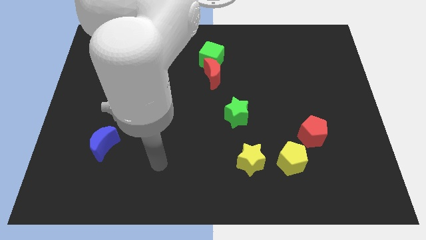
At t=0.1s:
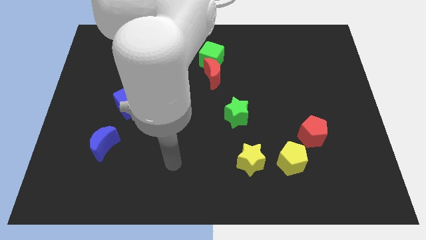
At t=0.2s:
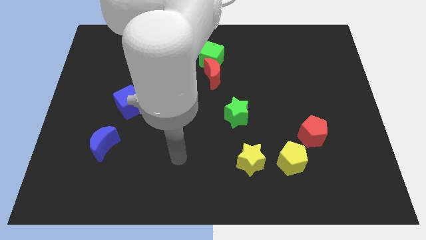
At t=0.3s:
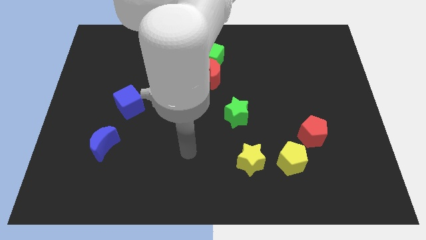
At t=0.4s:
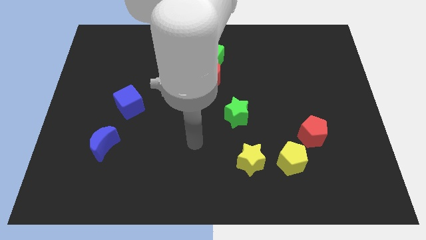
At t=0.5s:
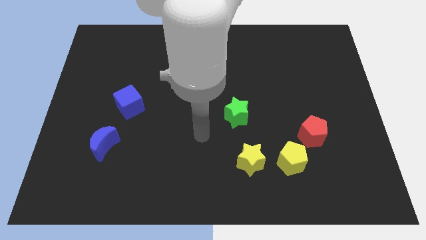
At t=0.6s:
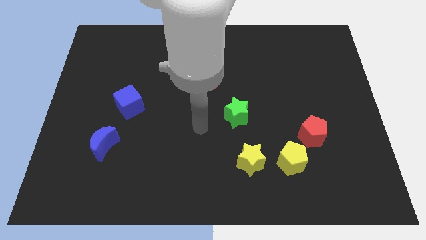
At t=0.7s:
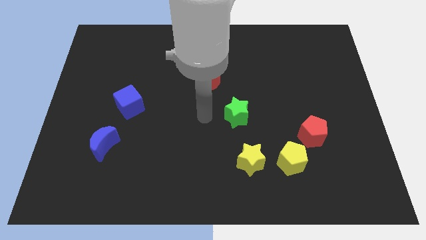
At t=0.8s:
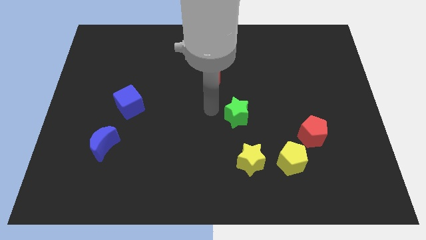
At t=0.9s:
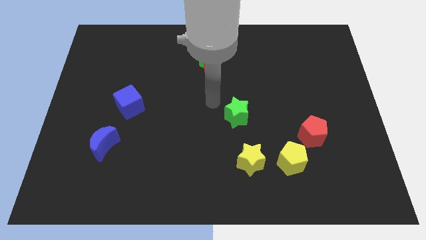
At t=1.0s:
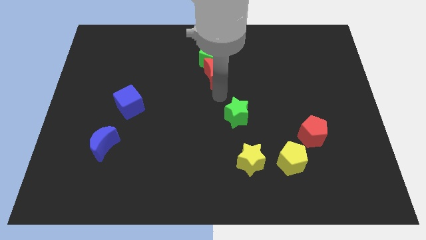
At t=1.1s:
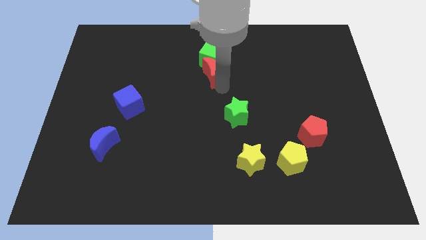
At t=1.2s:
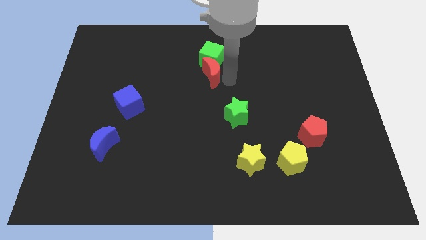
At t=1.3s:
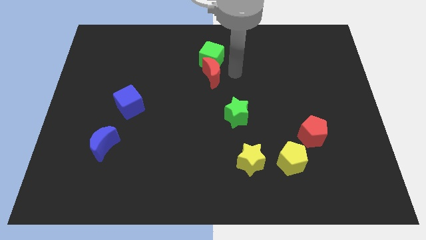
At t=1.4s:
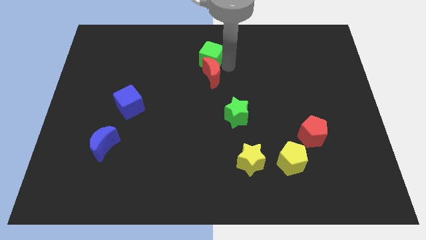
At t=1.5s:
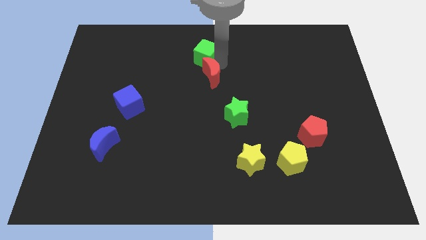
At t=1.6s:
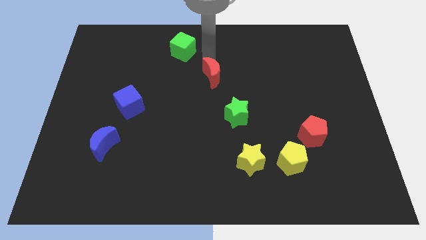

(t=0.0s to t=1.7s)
separate the red moon from the green cube

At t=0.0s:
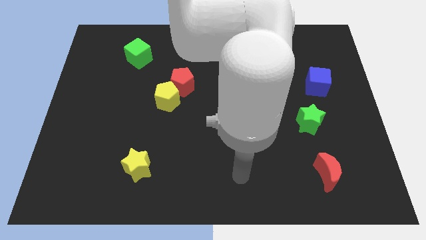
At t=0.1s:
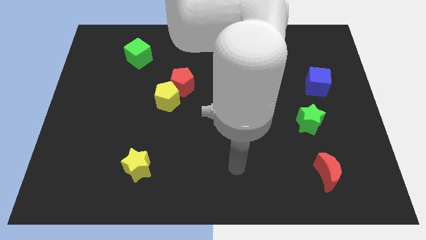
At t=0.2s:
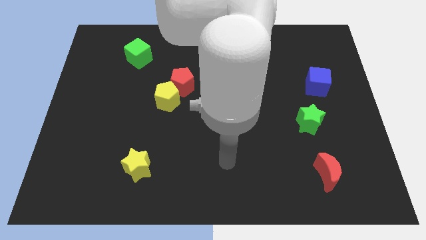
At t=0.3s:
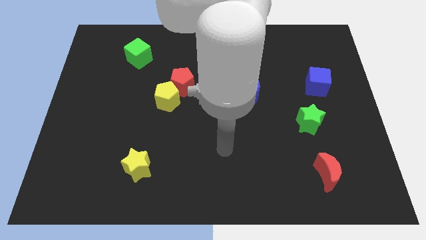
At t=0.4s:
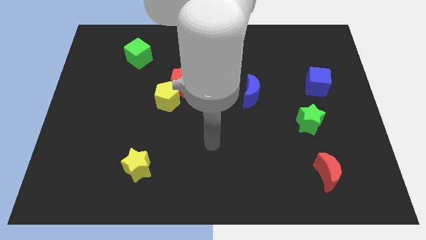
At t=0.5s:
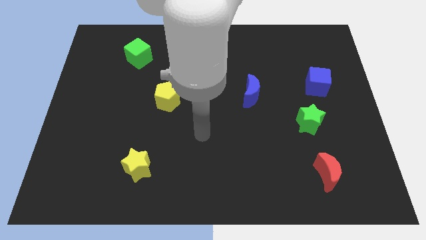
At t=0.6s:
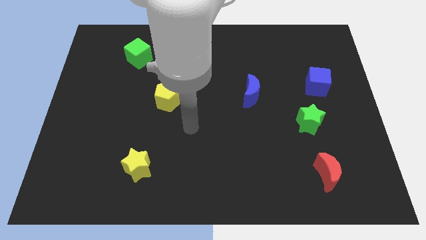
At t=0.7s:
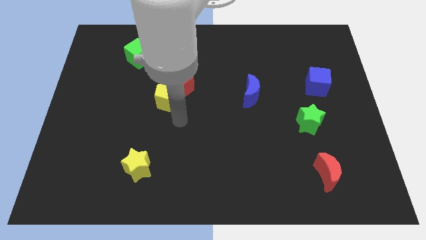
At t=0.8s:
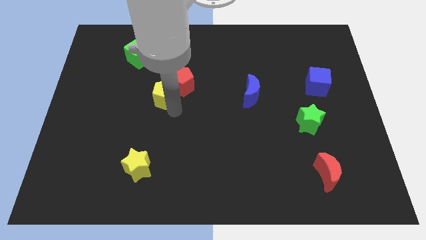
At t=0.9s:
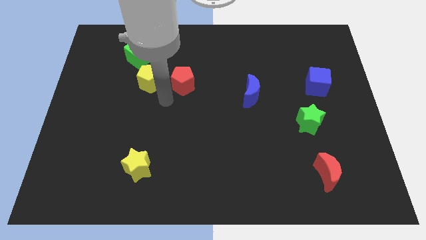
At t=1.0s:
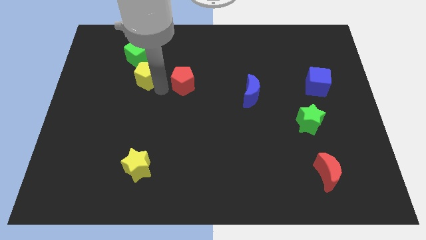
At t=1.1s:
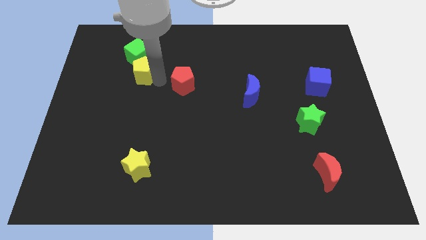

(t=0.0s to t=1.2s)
pull the red pentagon apart from the yellow pentagon

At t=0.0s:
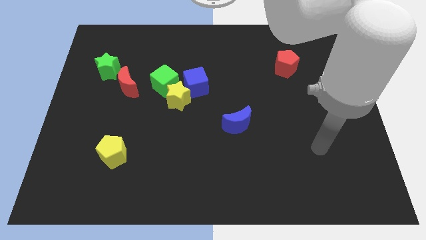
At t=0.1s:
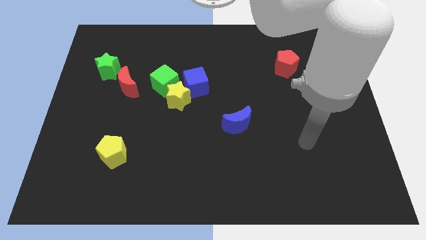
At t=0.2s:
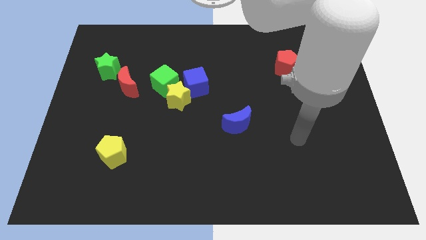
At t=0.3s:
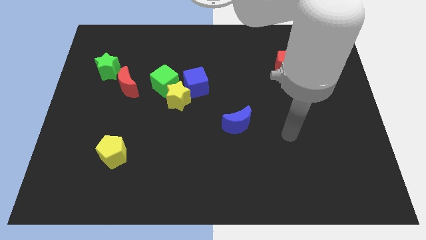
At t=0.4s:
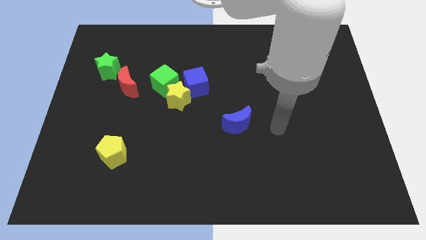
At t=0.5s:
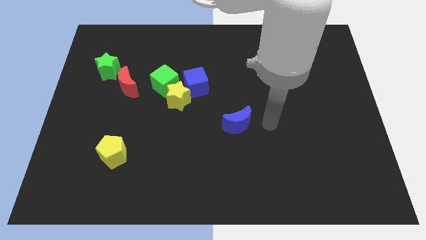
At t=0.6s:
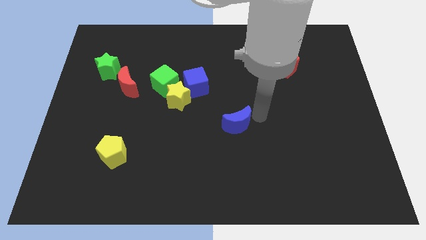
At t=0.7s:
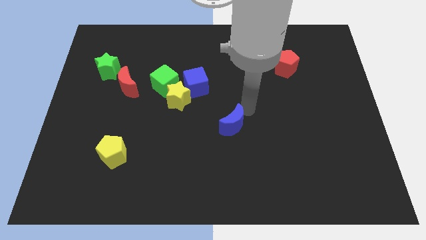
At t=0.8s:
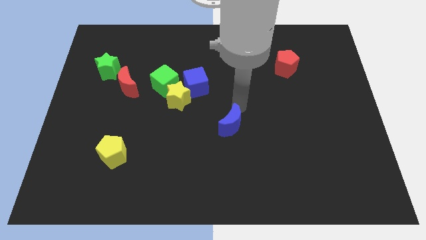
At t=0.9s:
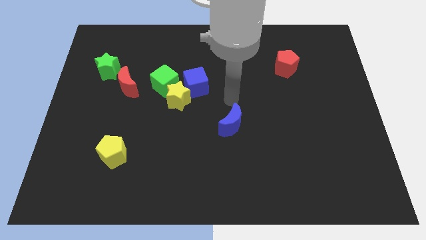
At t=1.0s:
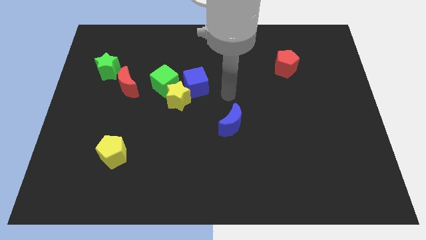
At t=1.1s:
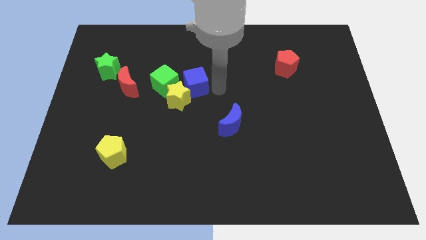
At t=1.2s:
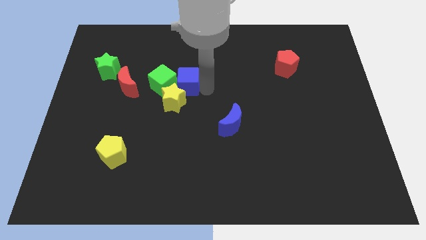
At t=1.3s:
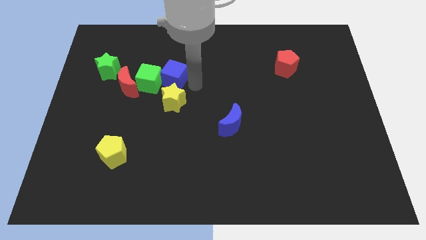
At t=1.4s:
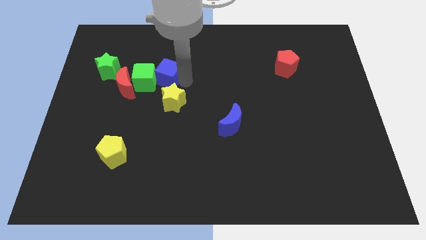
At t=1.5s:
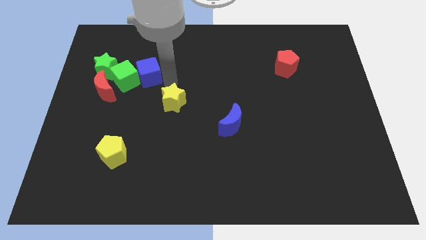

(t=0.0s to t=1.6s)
pull the yellow star apart from the blue cube and green cube

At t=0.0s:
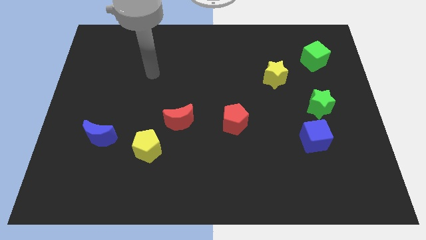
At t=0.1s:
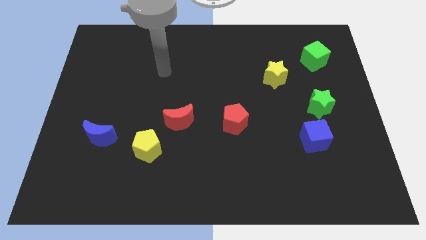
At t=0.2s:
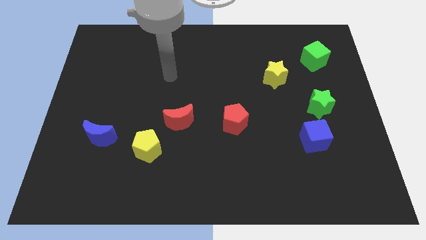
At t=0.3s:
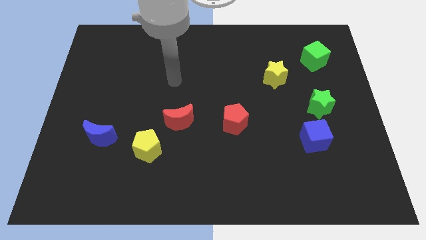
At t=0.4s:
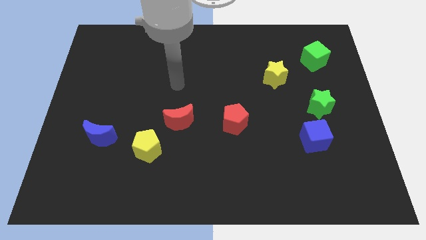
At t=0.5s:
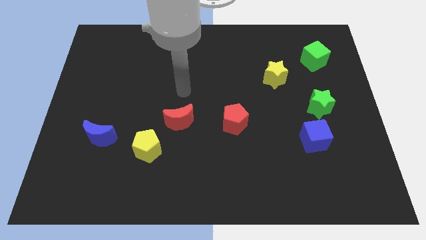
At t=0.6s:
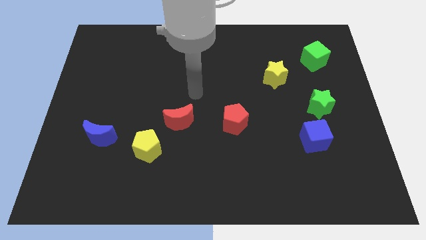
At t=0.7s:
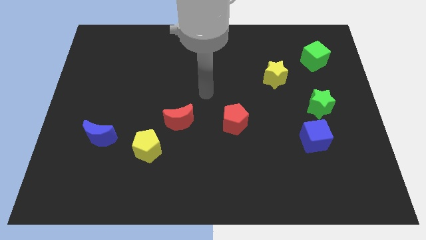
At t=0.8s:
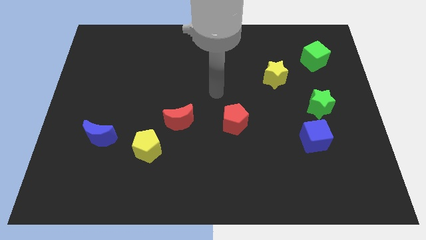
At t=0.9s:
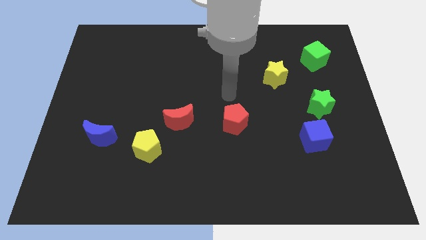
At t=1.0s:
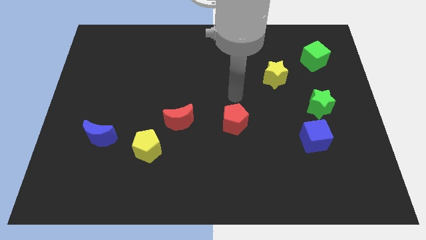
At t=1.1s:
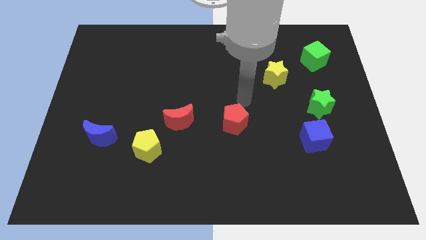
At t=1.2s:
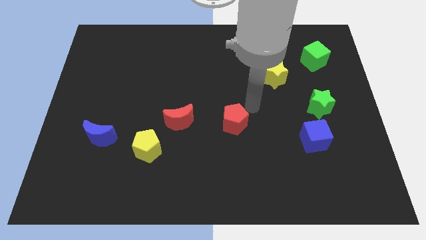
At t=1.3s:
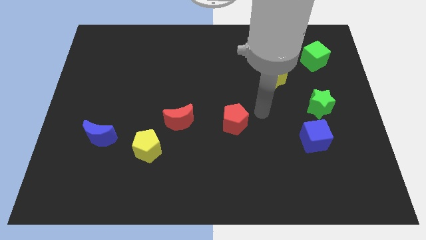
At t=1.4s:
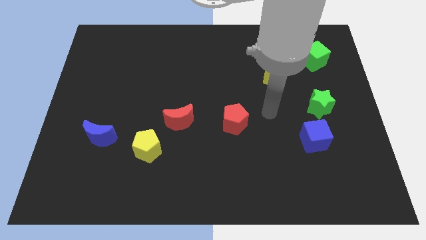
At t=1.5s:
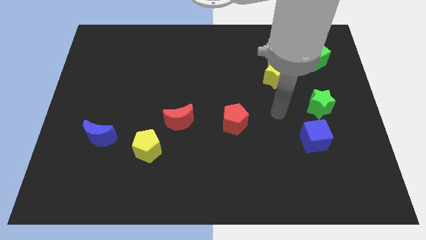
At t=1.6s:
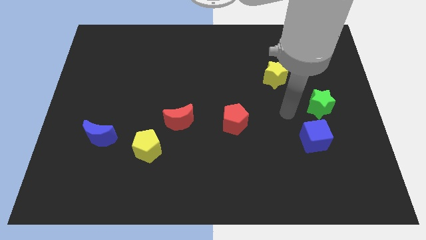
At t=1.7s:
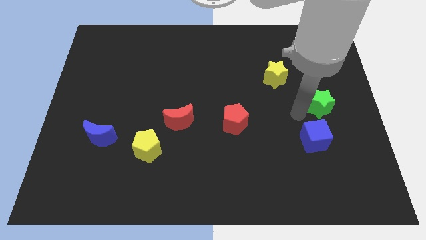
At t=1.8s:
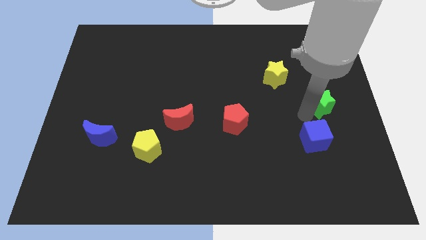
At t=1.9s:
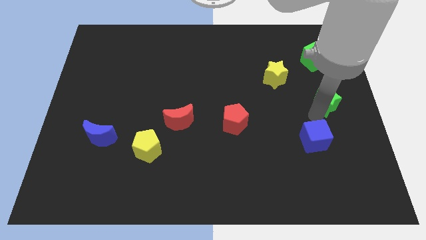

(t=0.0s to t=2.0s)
separate the blue cube from the green star

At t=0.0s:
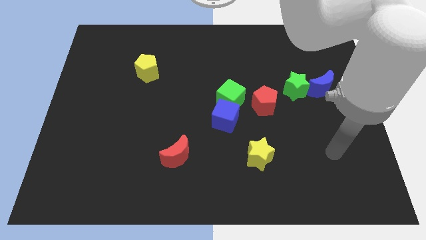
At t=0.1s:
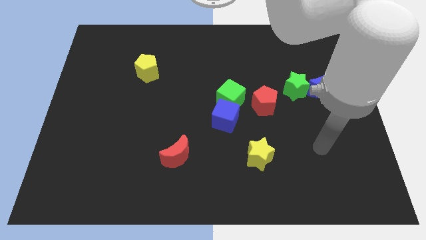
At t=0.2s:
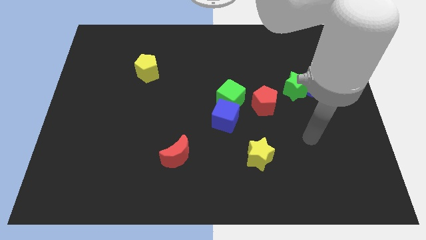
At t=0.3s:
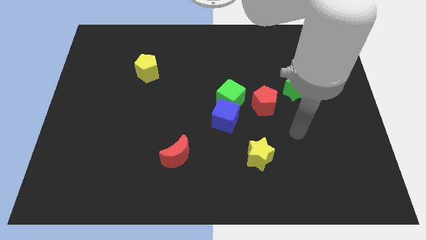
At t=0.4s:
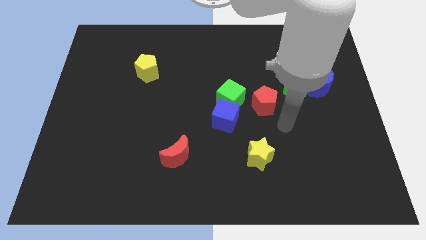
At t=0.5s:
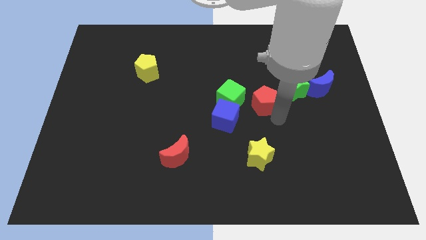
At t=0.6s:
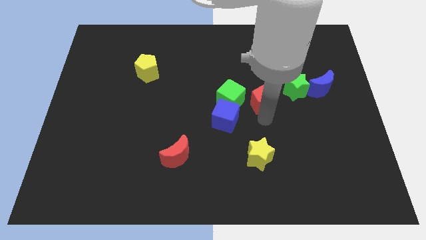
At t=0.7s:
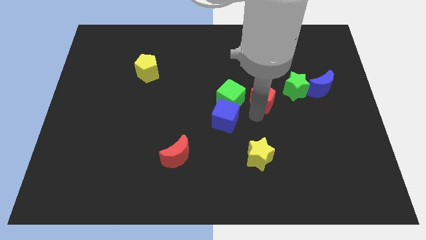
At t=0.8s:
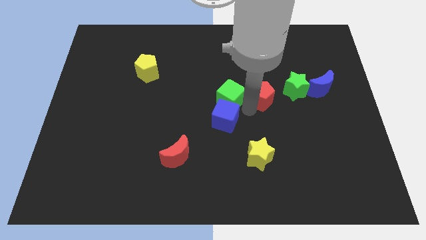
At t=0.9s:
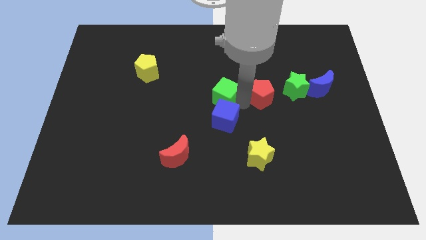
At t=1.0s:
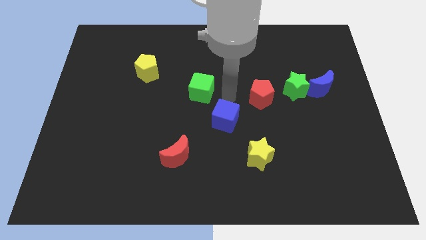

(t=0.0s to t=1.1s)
pull the blue cube apart from the green cube

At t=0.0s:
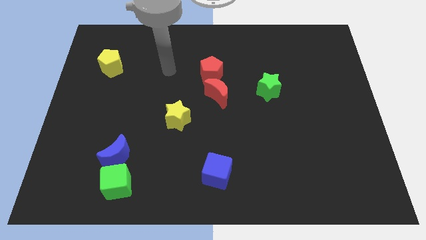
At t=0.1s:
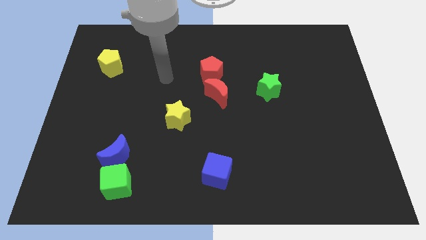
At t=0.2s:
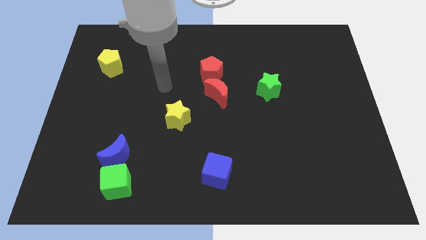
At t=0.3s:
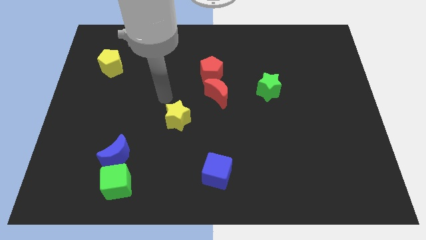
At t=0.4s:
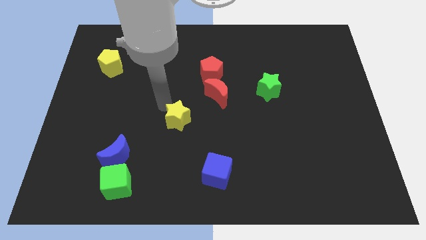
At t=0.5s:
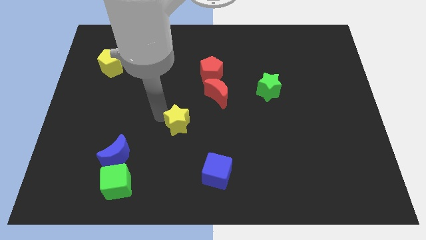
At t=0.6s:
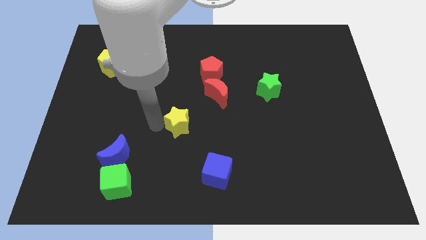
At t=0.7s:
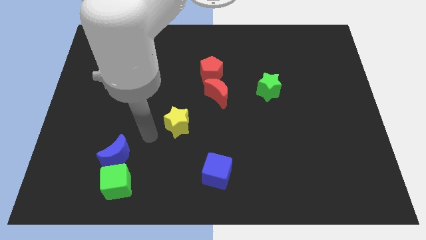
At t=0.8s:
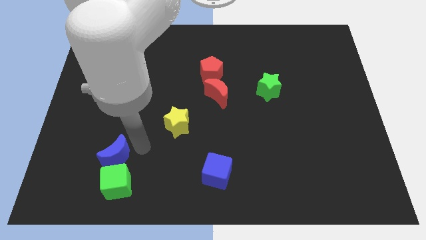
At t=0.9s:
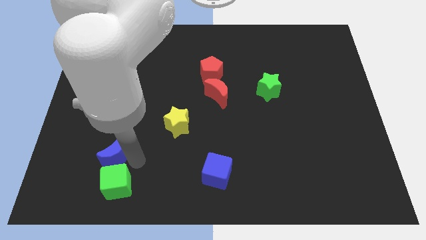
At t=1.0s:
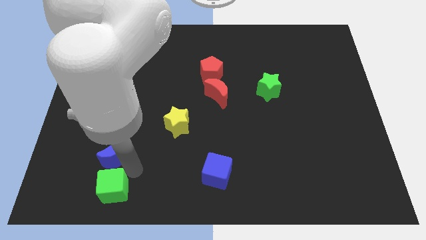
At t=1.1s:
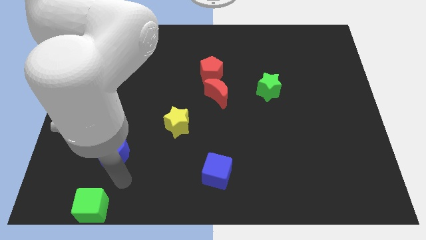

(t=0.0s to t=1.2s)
pull the blue moon apart from the green cube

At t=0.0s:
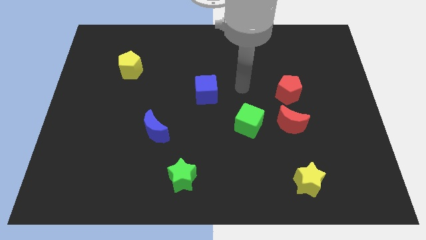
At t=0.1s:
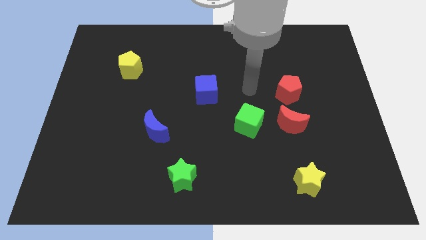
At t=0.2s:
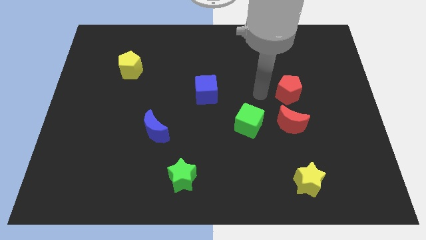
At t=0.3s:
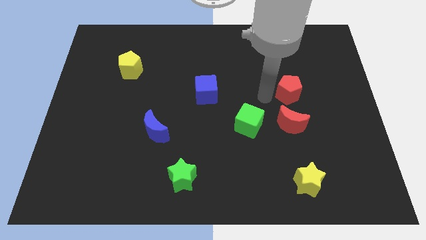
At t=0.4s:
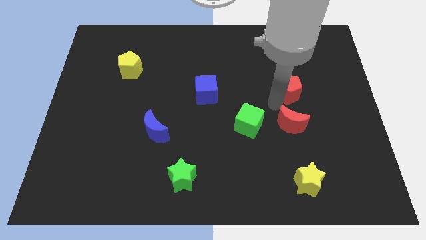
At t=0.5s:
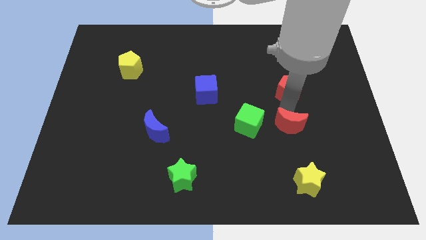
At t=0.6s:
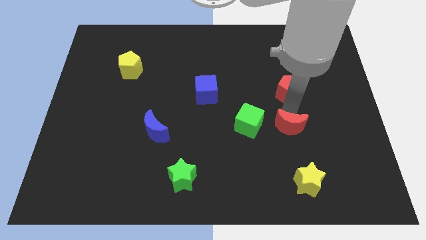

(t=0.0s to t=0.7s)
move the red pentagon away from the red moon
